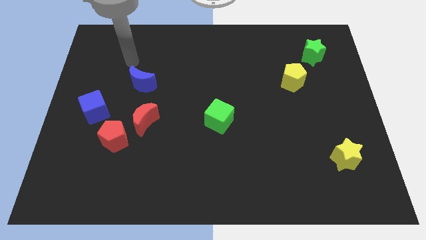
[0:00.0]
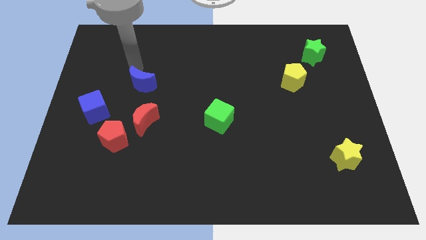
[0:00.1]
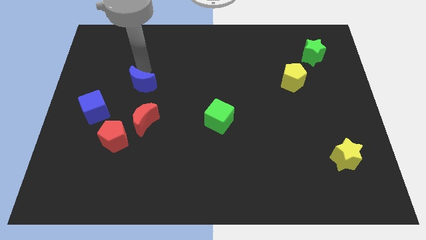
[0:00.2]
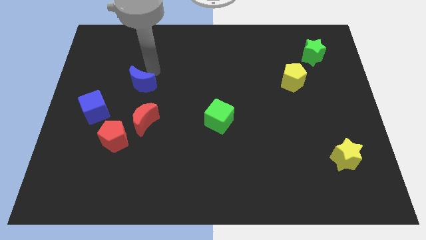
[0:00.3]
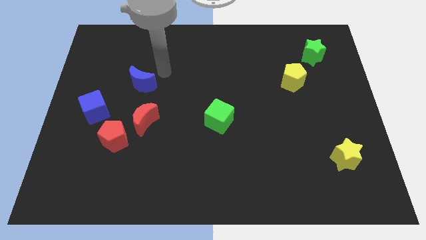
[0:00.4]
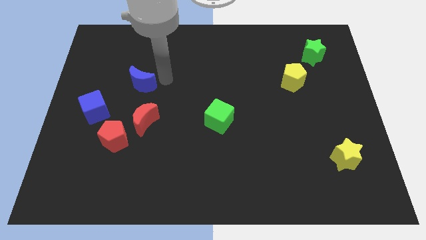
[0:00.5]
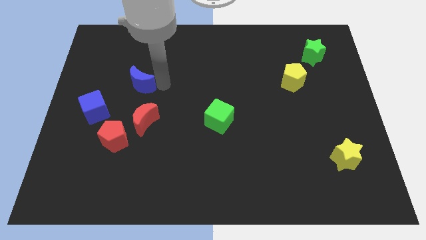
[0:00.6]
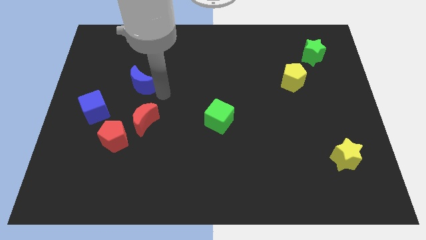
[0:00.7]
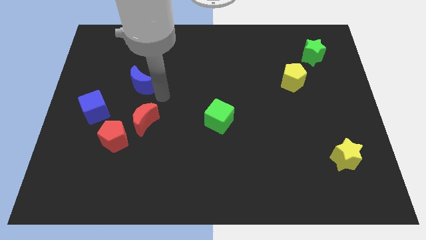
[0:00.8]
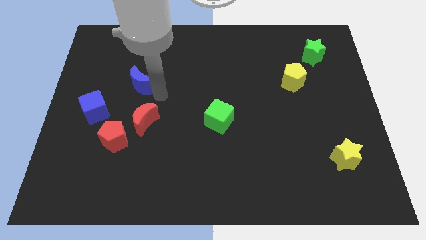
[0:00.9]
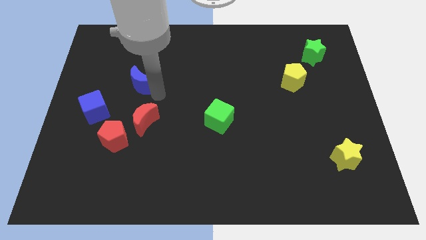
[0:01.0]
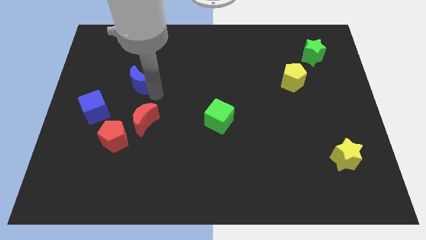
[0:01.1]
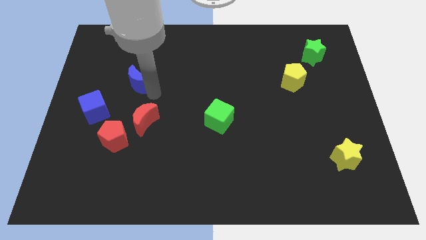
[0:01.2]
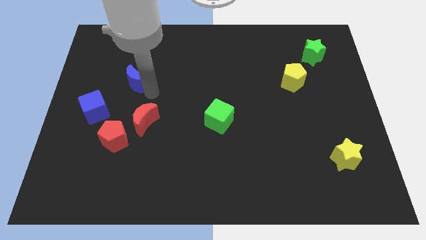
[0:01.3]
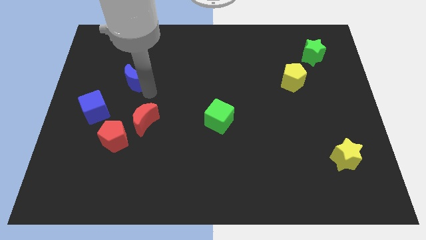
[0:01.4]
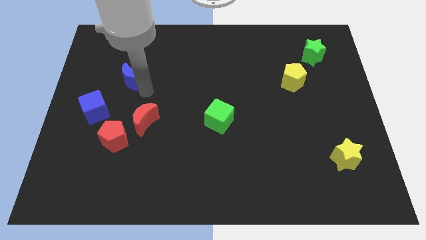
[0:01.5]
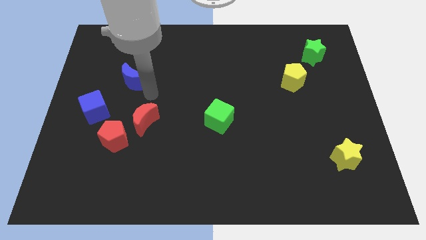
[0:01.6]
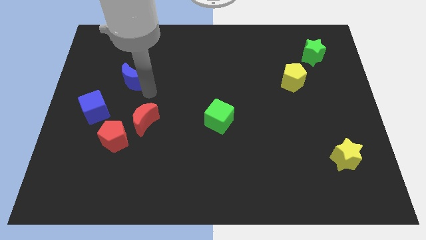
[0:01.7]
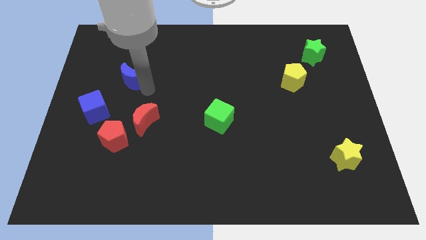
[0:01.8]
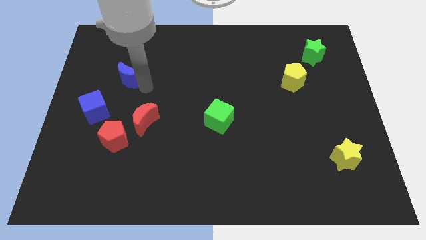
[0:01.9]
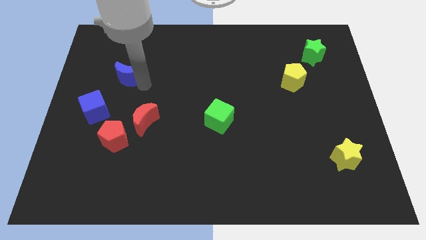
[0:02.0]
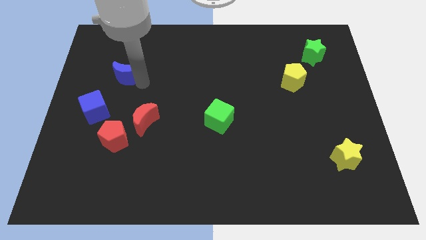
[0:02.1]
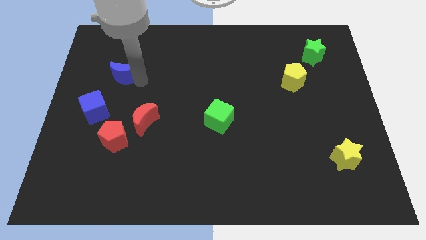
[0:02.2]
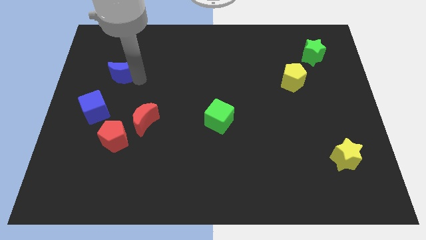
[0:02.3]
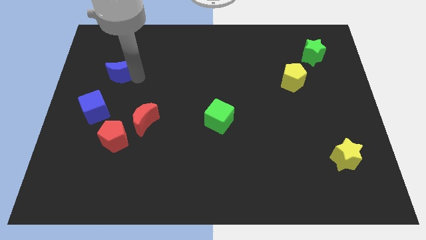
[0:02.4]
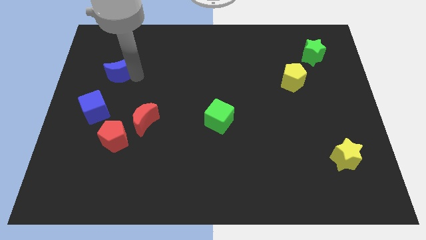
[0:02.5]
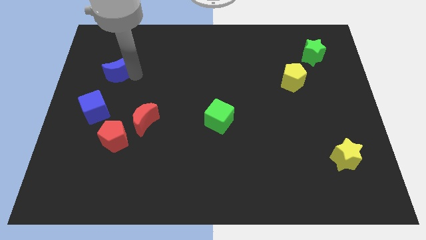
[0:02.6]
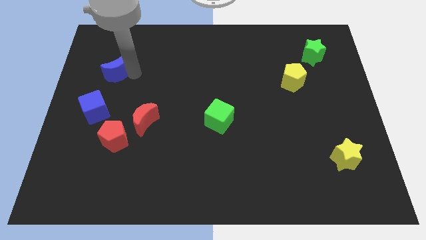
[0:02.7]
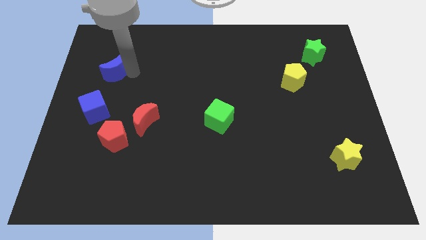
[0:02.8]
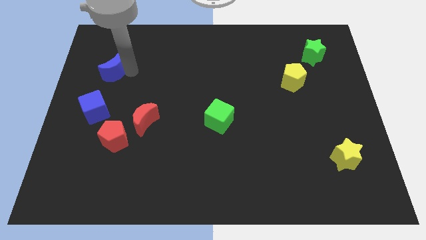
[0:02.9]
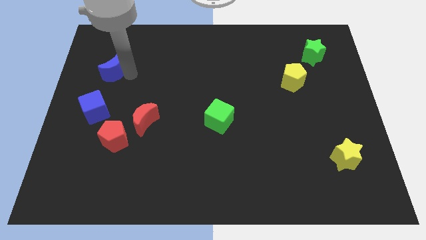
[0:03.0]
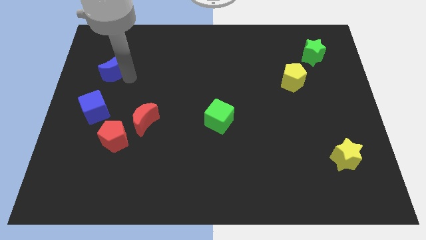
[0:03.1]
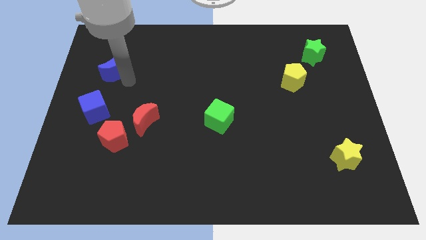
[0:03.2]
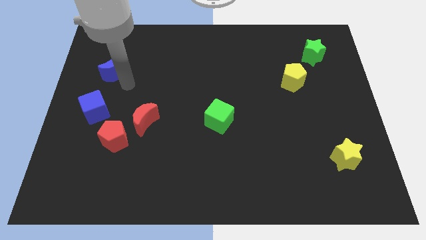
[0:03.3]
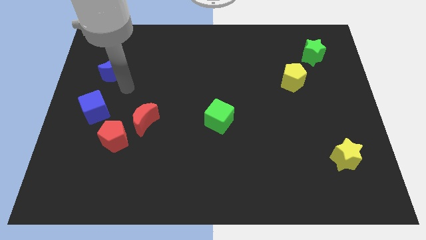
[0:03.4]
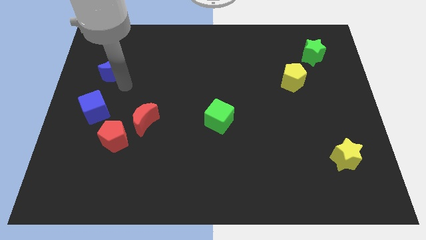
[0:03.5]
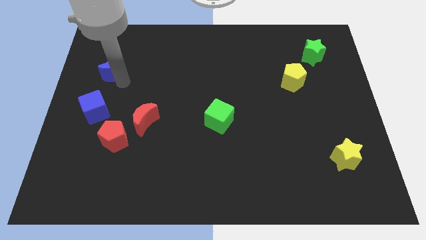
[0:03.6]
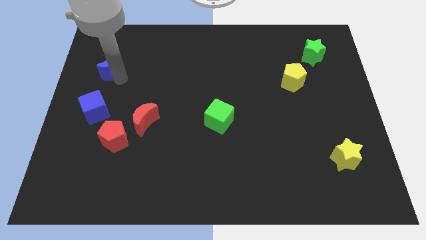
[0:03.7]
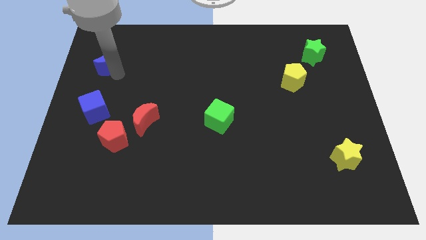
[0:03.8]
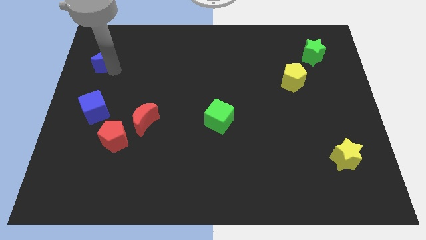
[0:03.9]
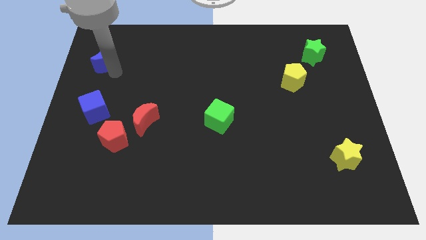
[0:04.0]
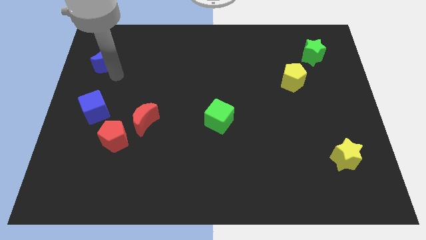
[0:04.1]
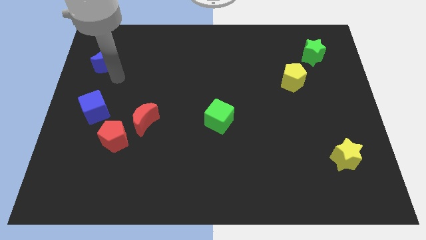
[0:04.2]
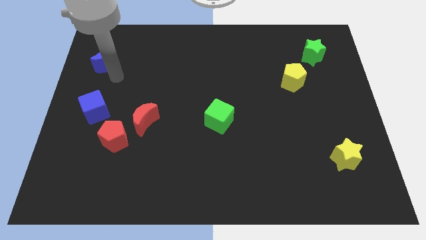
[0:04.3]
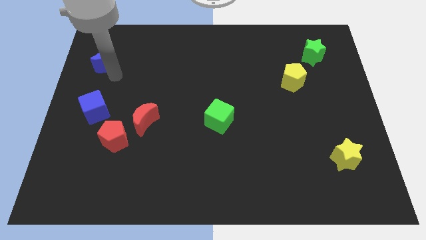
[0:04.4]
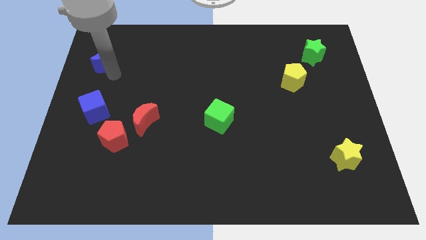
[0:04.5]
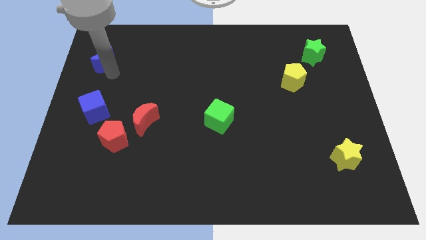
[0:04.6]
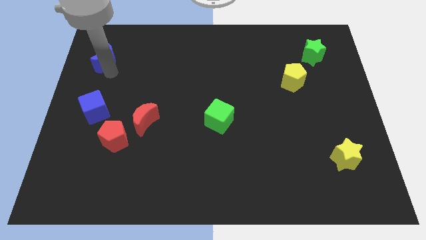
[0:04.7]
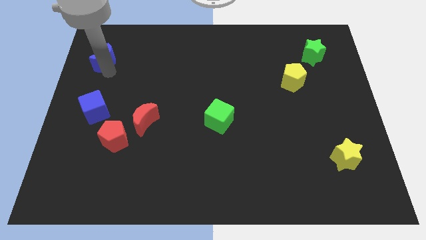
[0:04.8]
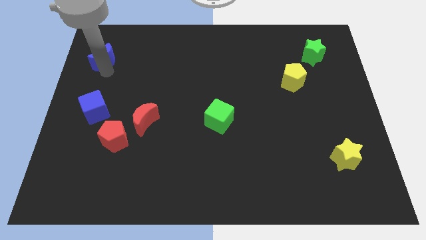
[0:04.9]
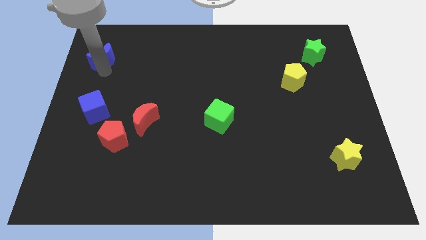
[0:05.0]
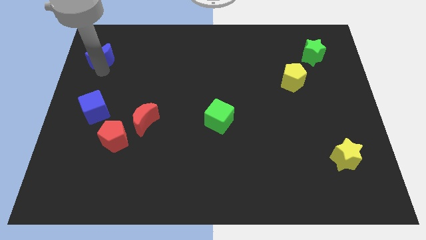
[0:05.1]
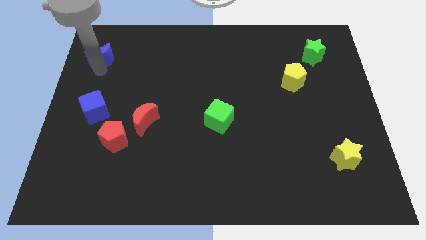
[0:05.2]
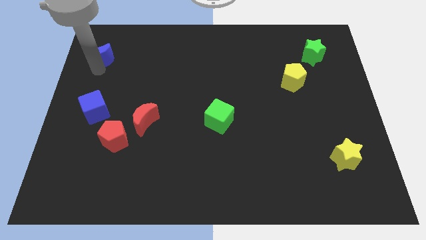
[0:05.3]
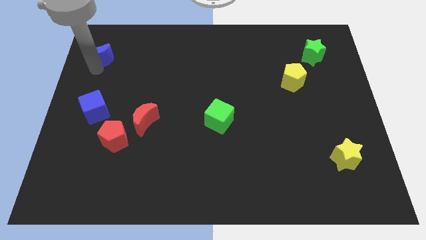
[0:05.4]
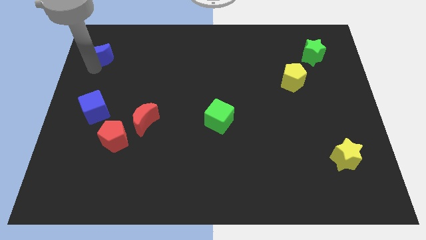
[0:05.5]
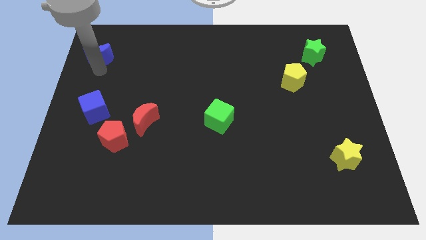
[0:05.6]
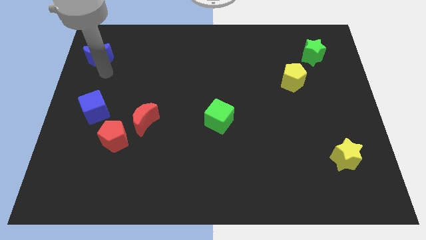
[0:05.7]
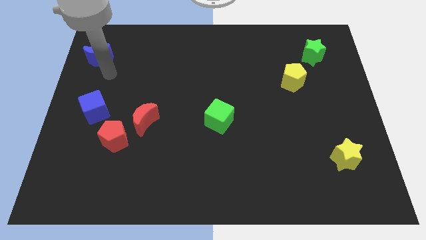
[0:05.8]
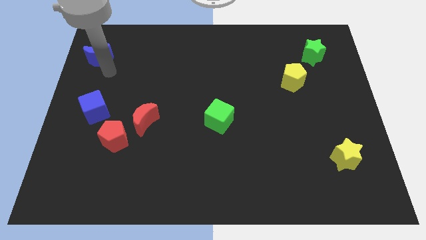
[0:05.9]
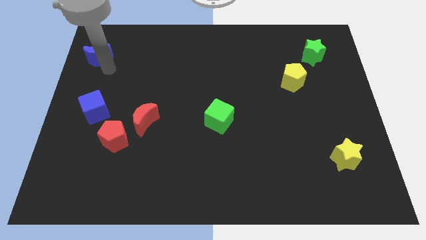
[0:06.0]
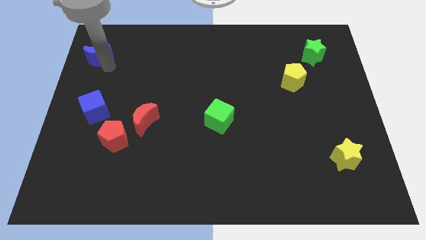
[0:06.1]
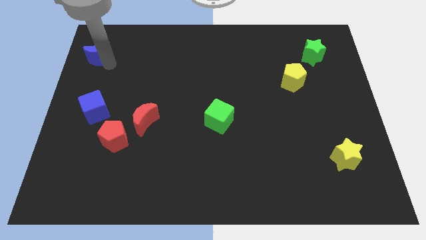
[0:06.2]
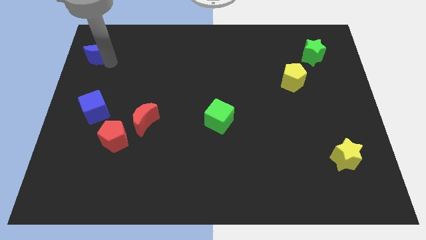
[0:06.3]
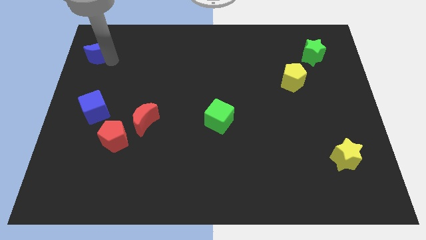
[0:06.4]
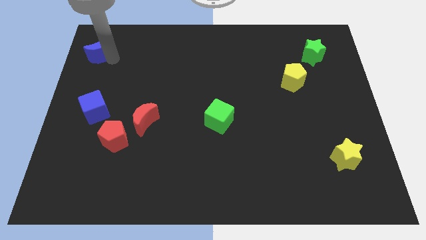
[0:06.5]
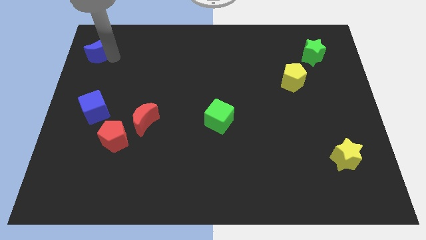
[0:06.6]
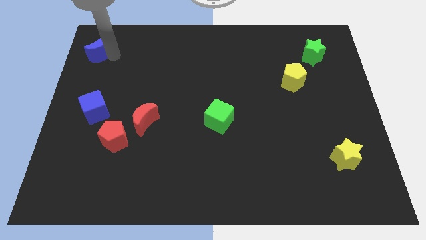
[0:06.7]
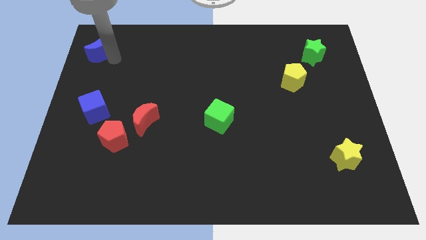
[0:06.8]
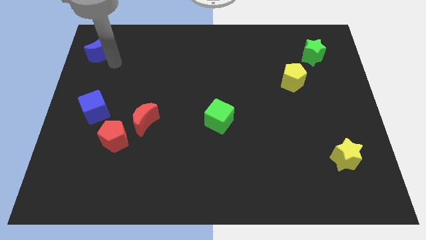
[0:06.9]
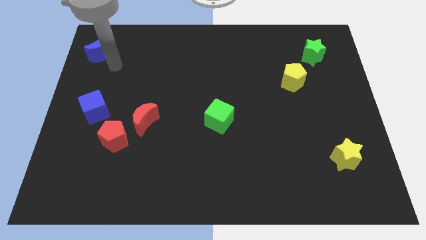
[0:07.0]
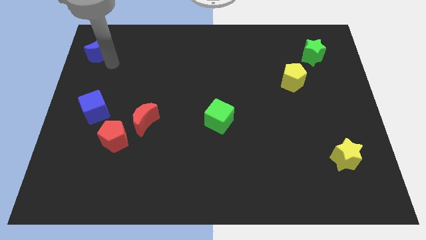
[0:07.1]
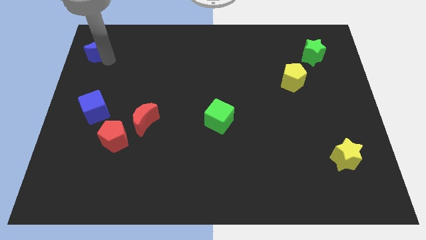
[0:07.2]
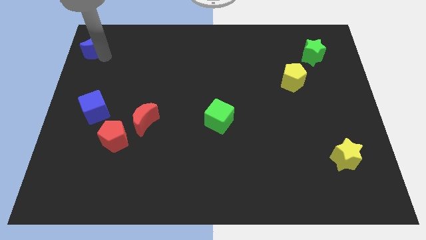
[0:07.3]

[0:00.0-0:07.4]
push the blue moon to the top left of the board

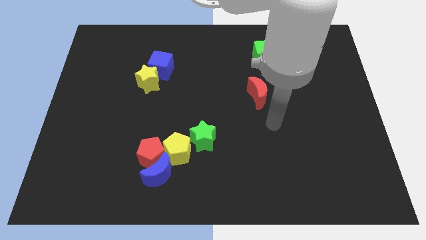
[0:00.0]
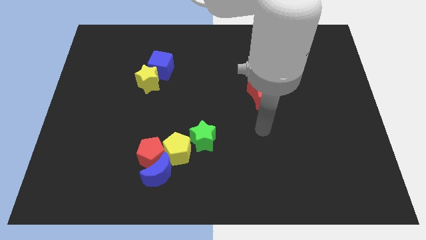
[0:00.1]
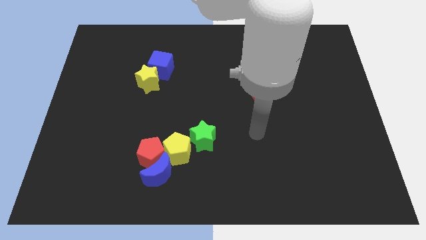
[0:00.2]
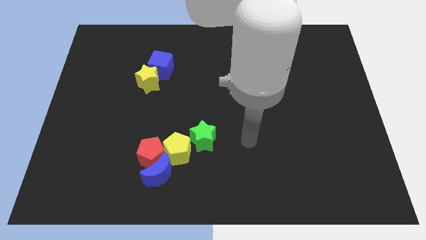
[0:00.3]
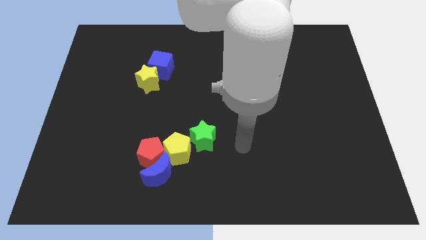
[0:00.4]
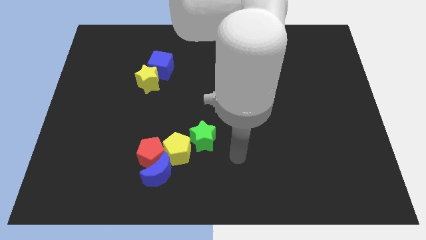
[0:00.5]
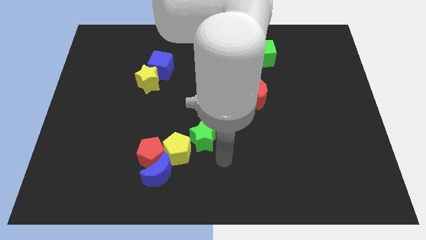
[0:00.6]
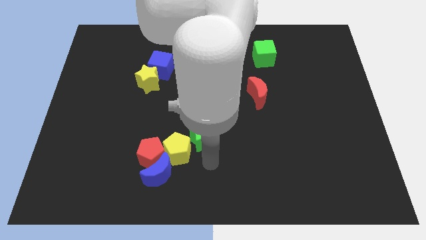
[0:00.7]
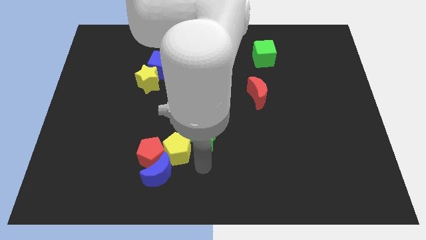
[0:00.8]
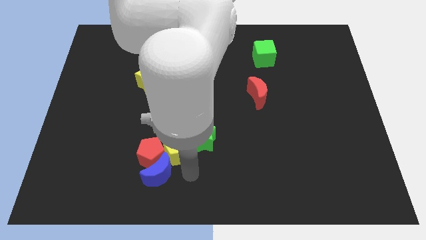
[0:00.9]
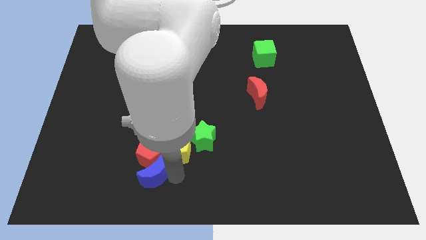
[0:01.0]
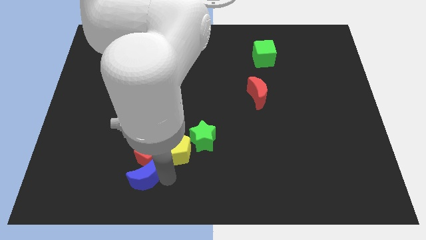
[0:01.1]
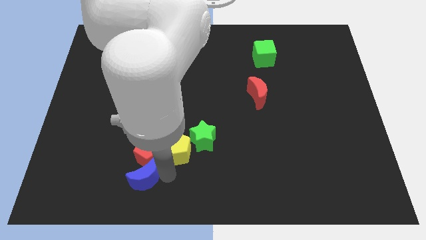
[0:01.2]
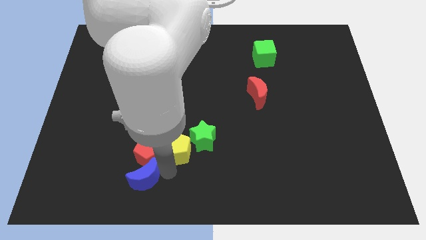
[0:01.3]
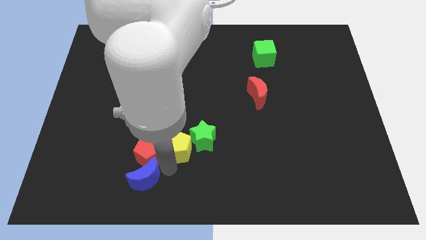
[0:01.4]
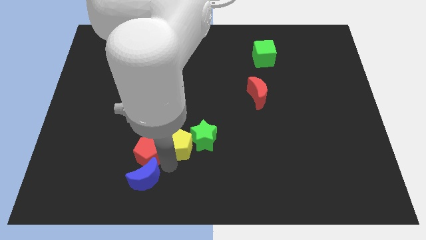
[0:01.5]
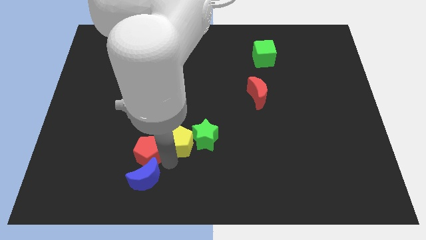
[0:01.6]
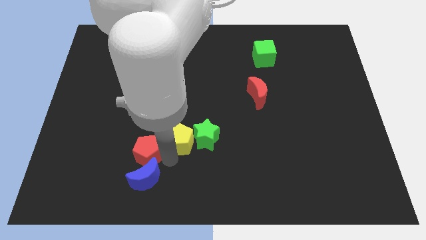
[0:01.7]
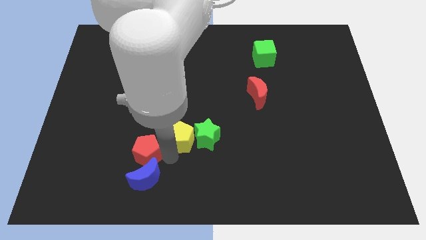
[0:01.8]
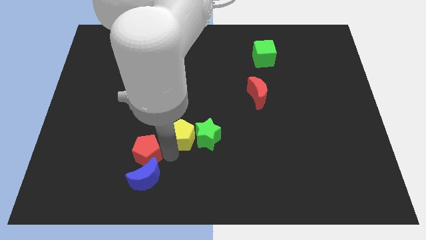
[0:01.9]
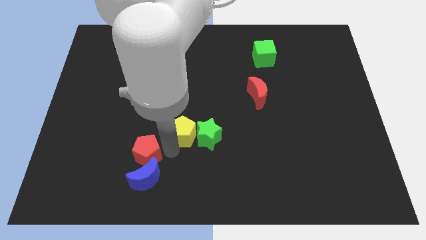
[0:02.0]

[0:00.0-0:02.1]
slide the yellow pentagon to the center of the board
